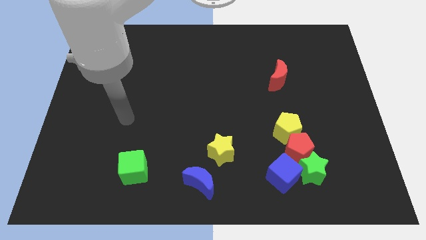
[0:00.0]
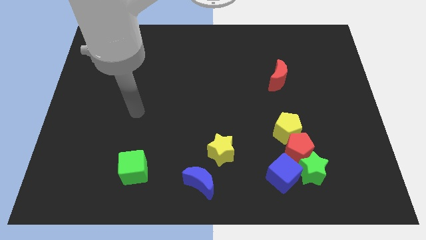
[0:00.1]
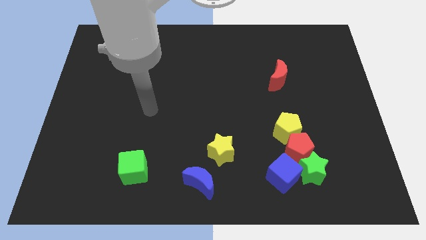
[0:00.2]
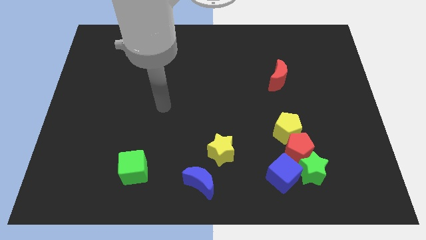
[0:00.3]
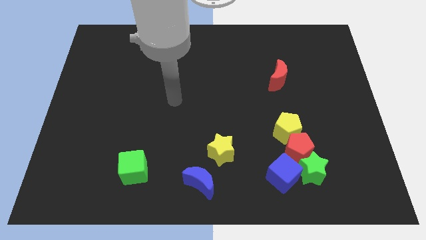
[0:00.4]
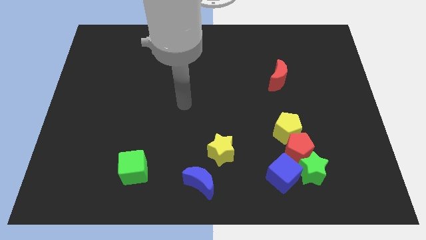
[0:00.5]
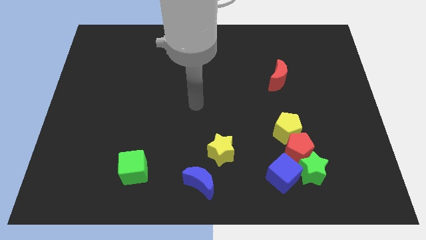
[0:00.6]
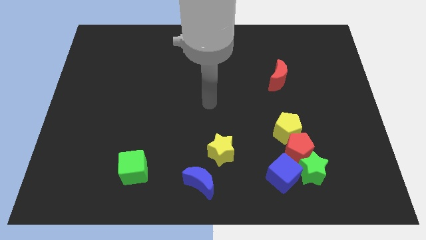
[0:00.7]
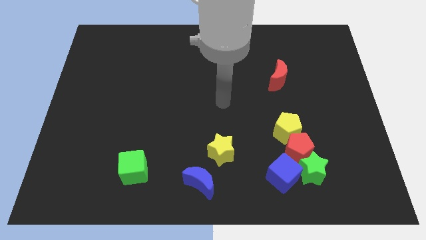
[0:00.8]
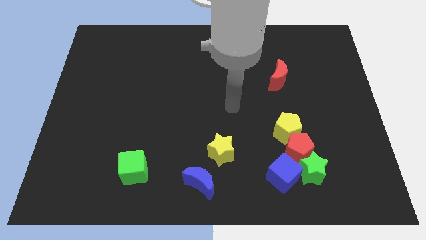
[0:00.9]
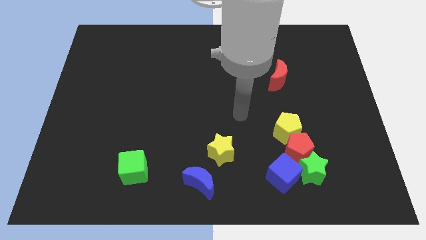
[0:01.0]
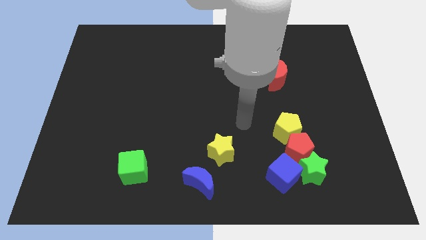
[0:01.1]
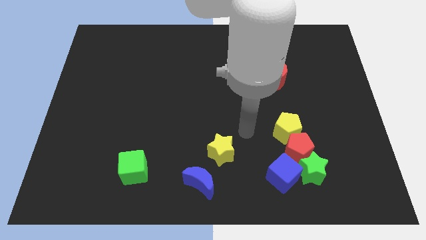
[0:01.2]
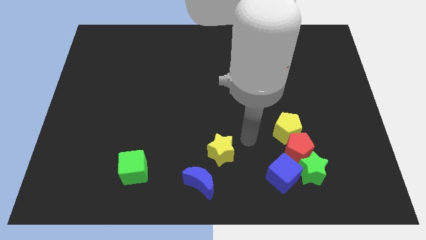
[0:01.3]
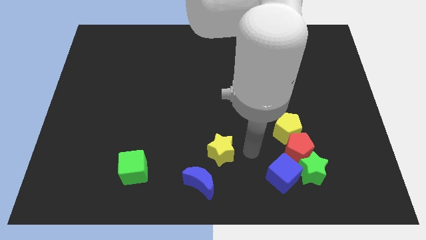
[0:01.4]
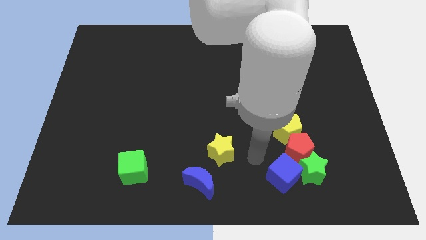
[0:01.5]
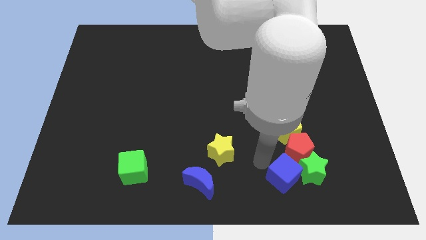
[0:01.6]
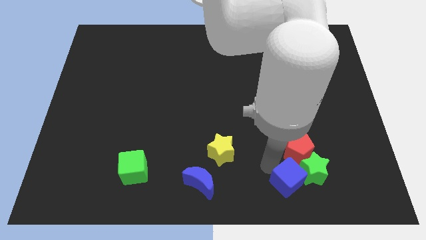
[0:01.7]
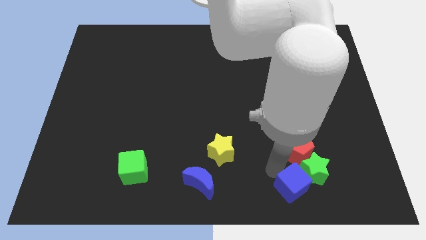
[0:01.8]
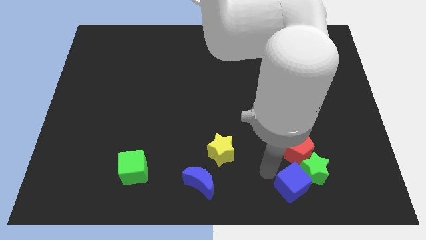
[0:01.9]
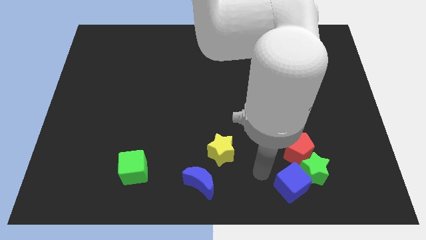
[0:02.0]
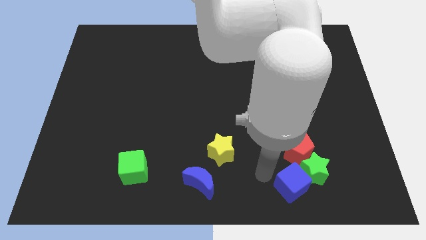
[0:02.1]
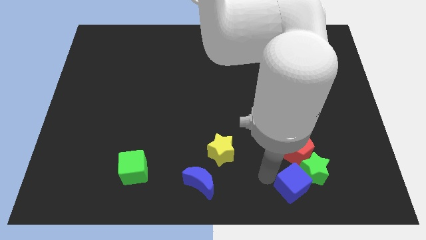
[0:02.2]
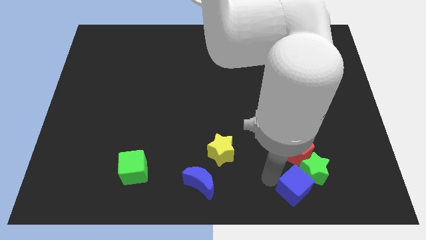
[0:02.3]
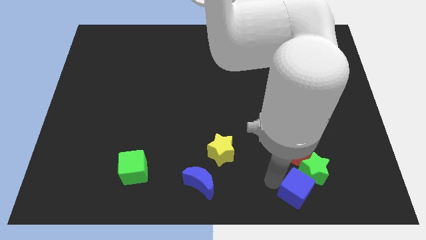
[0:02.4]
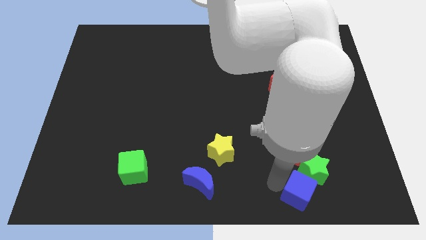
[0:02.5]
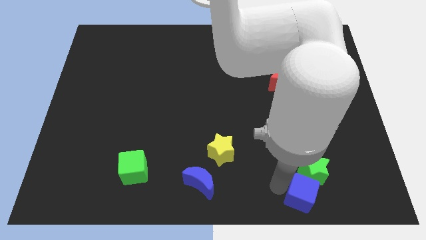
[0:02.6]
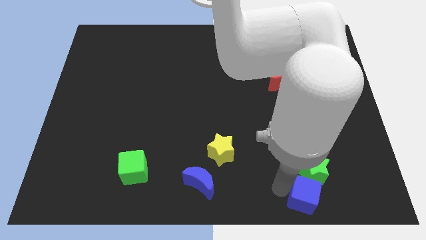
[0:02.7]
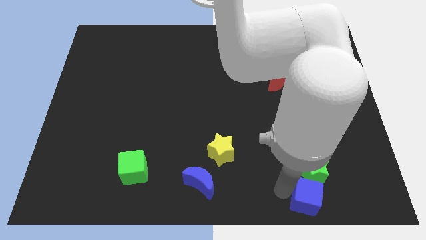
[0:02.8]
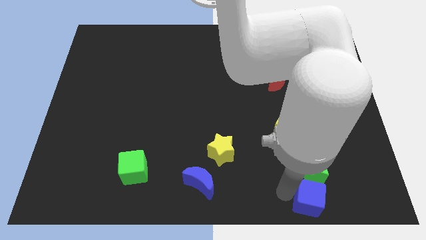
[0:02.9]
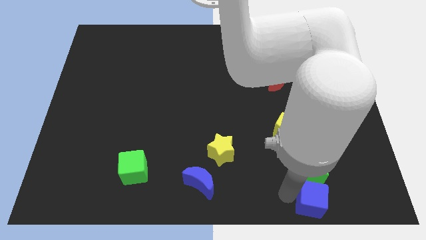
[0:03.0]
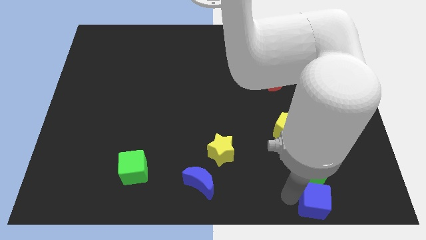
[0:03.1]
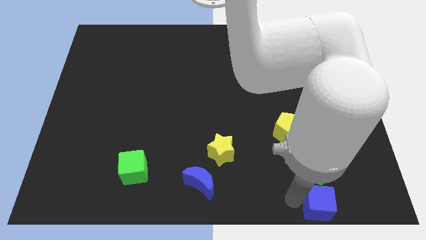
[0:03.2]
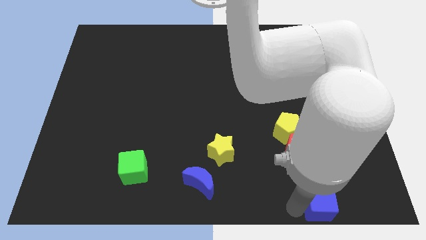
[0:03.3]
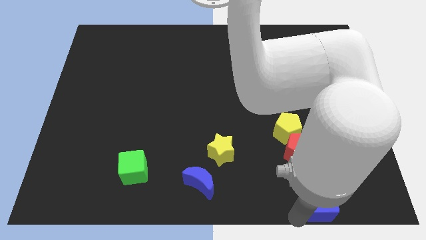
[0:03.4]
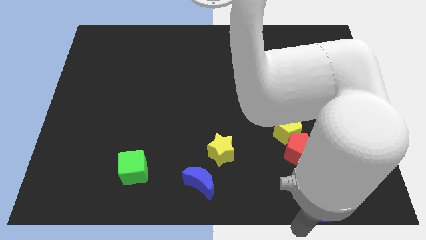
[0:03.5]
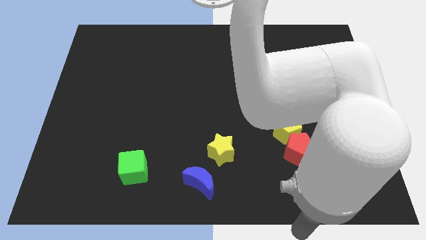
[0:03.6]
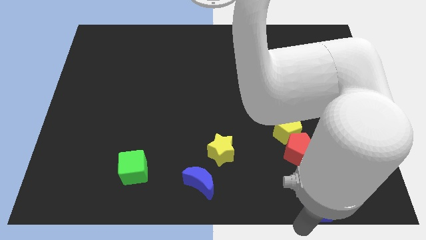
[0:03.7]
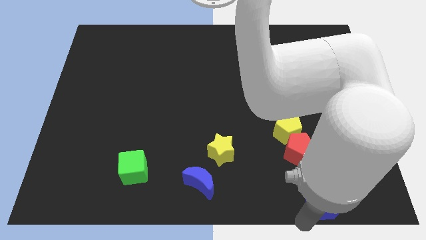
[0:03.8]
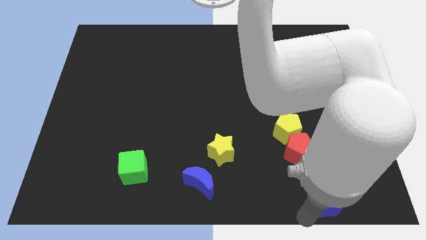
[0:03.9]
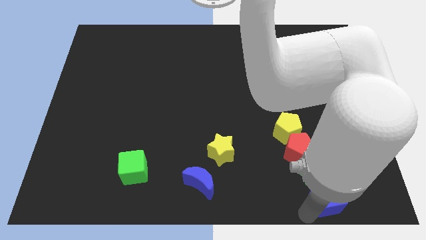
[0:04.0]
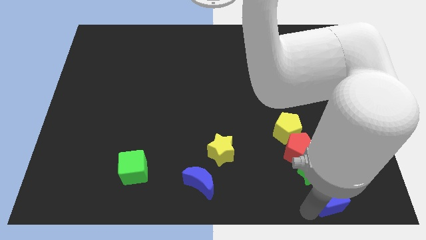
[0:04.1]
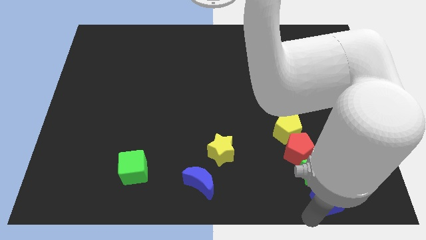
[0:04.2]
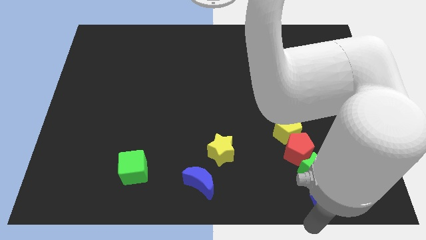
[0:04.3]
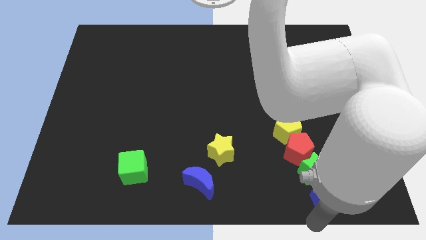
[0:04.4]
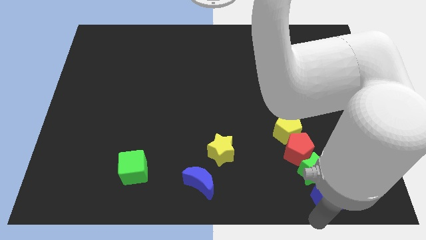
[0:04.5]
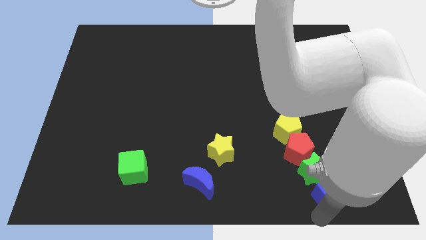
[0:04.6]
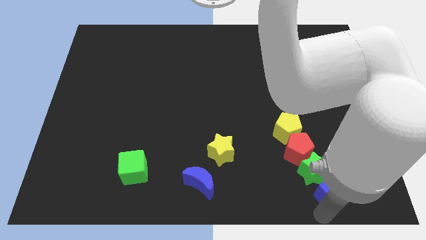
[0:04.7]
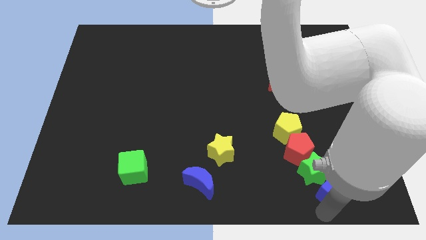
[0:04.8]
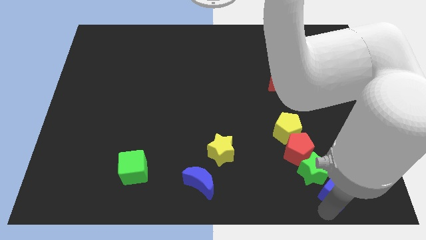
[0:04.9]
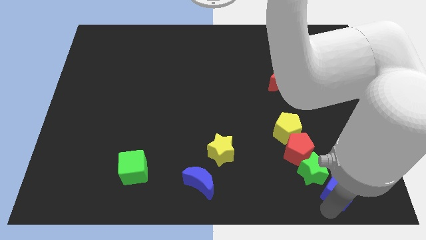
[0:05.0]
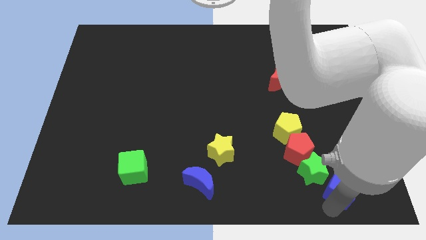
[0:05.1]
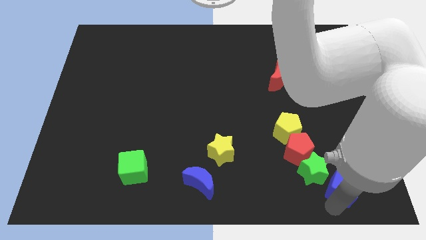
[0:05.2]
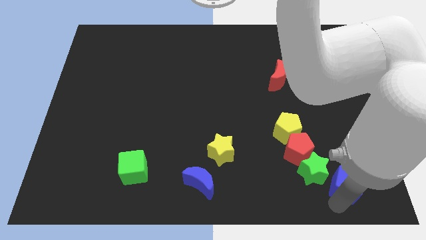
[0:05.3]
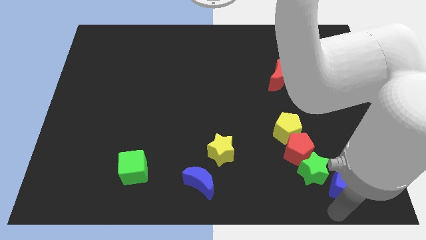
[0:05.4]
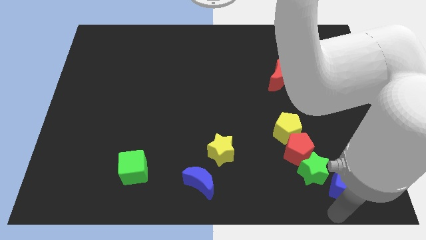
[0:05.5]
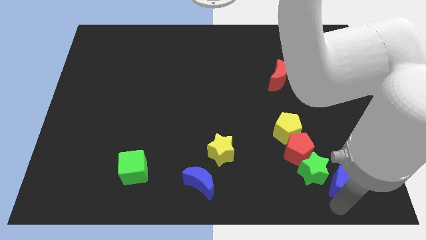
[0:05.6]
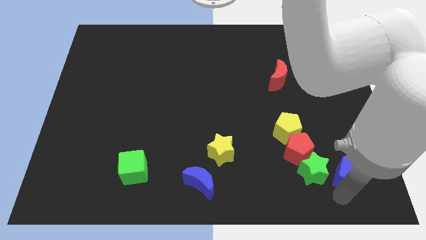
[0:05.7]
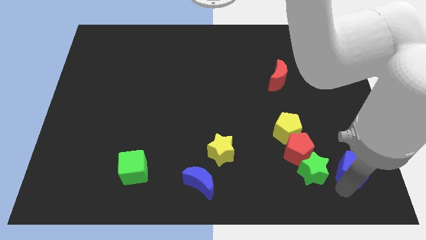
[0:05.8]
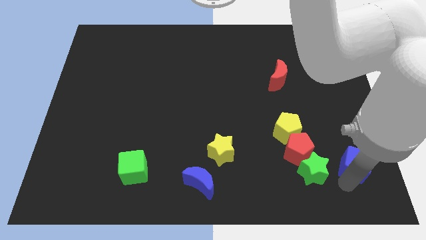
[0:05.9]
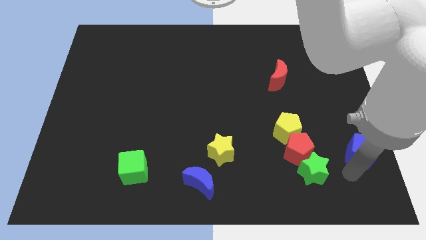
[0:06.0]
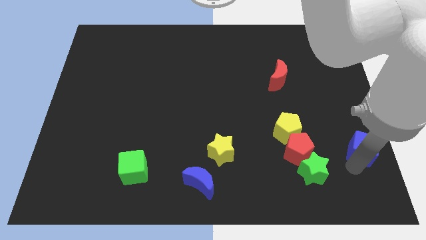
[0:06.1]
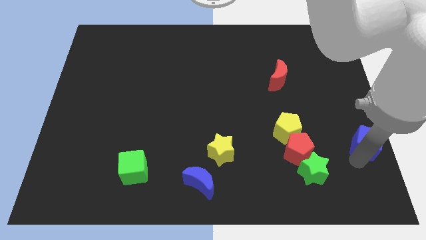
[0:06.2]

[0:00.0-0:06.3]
move the blue cube to the right side of the board
